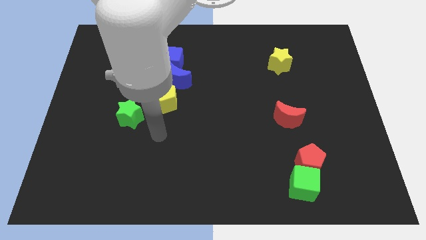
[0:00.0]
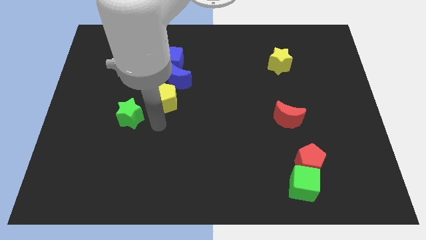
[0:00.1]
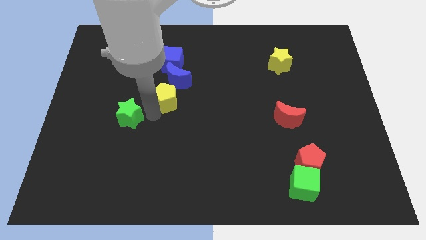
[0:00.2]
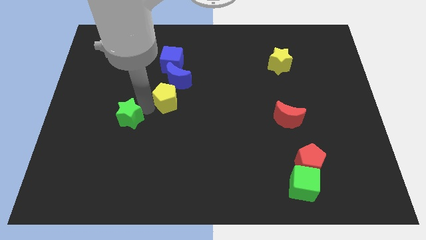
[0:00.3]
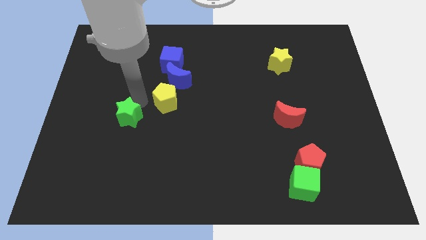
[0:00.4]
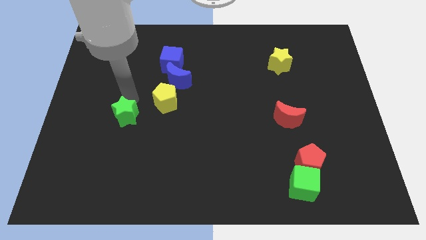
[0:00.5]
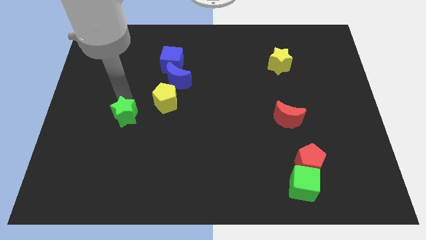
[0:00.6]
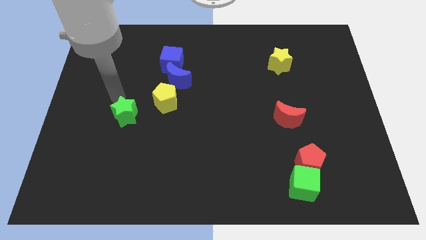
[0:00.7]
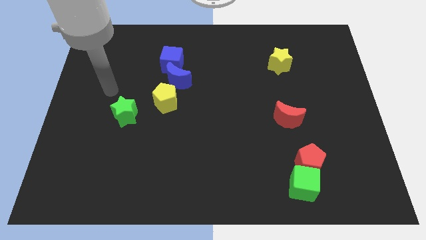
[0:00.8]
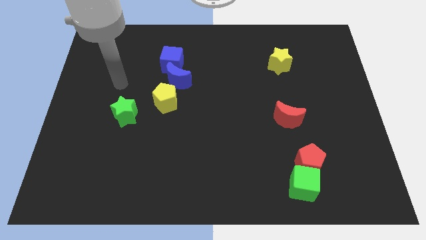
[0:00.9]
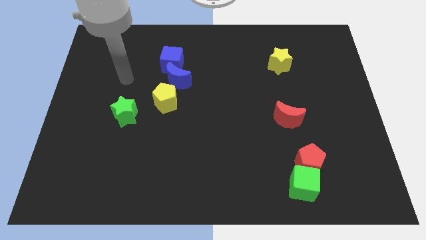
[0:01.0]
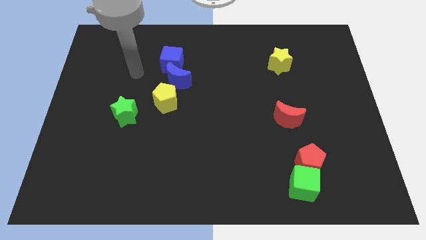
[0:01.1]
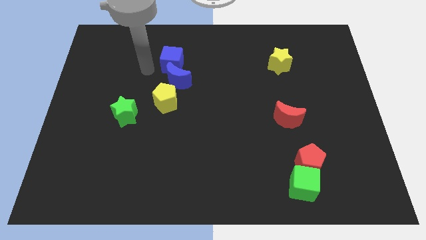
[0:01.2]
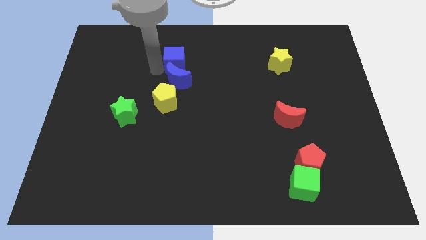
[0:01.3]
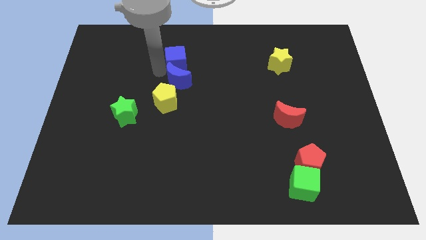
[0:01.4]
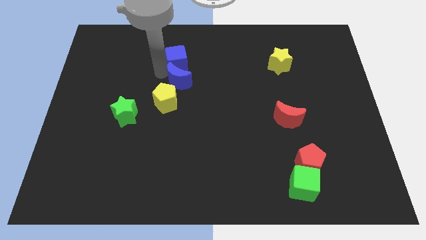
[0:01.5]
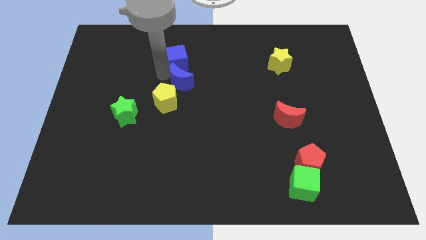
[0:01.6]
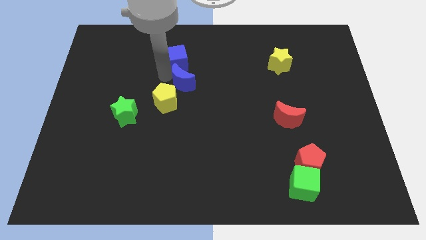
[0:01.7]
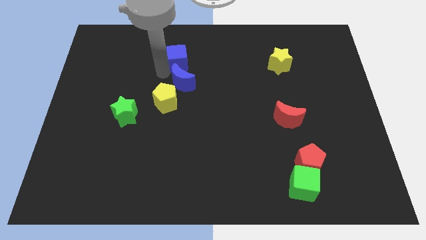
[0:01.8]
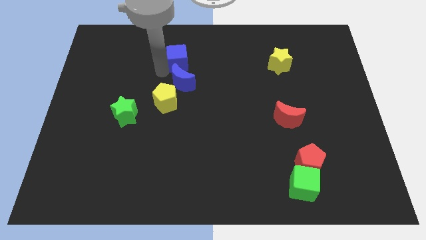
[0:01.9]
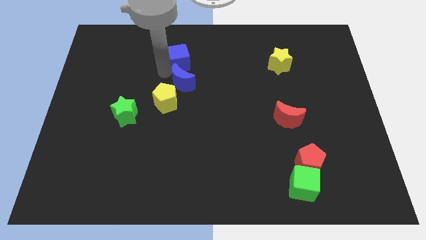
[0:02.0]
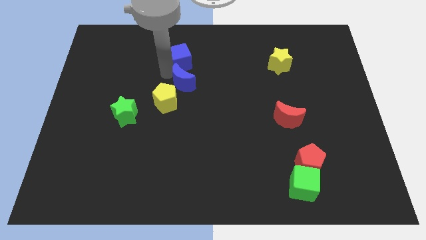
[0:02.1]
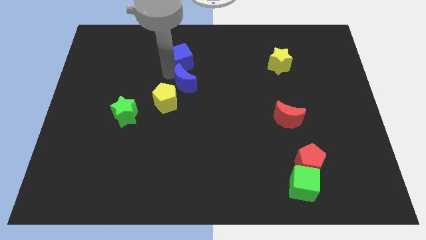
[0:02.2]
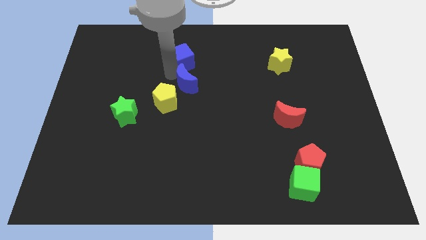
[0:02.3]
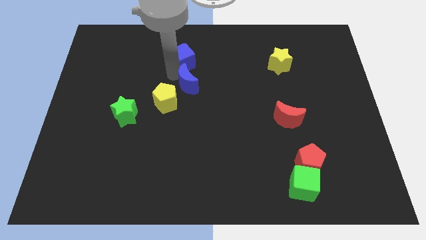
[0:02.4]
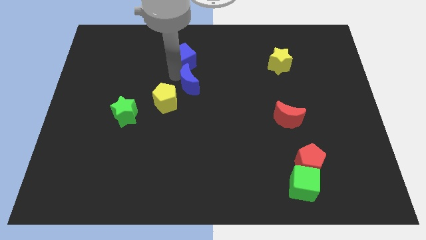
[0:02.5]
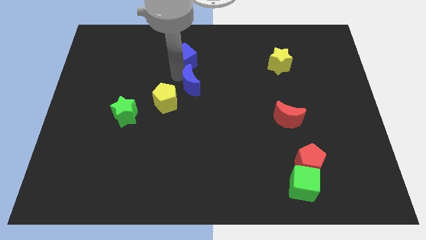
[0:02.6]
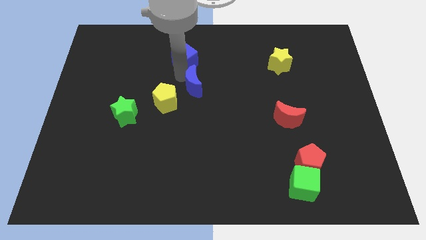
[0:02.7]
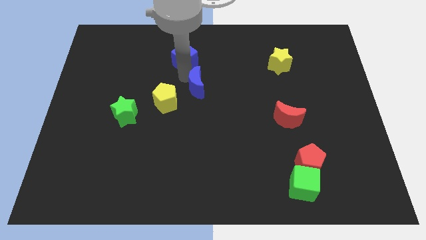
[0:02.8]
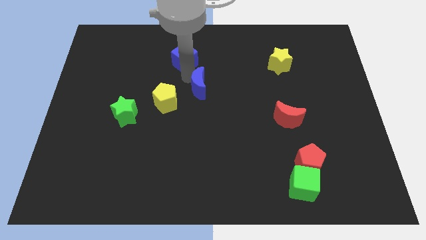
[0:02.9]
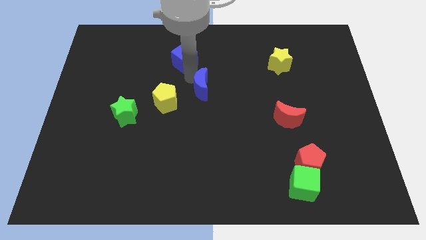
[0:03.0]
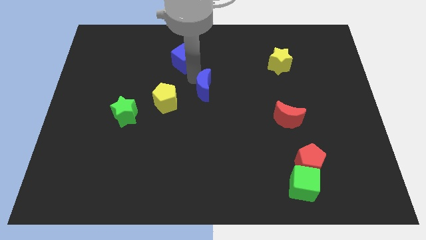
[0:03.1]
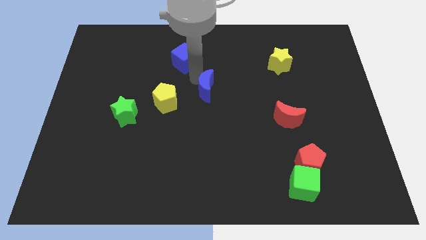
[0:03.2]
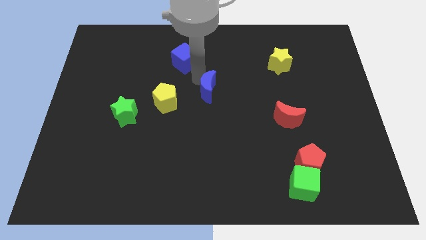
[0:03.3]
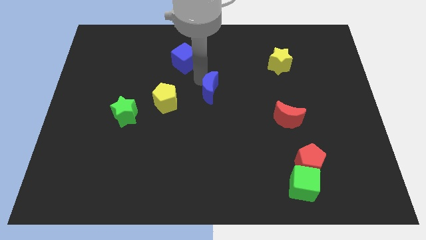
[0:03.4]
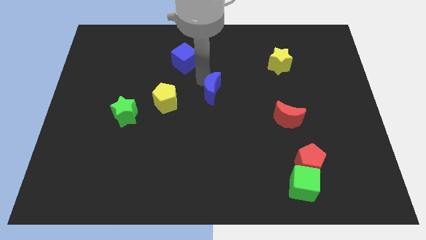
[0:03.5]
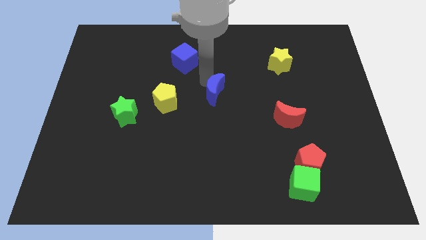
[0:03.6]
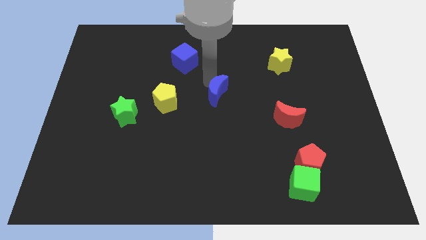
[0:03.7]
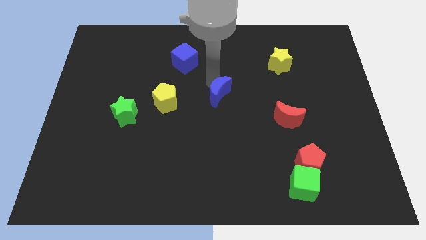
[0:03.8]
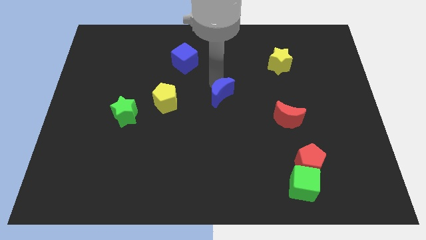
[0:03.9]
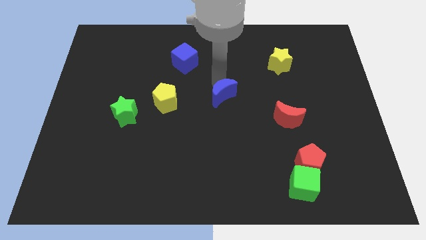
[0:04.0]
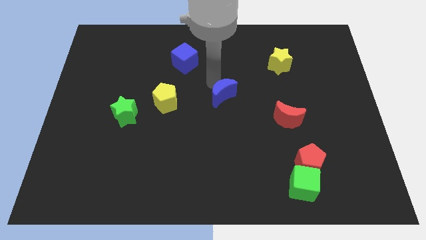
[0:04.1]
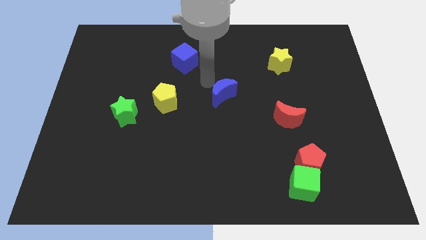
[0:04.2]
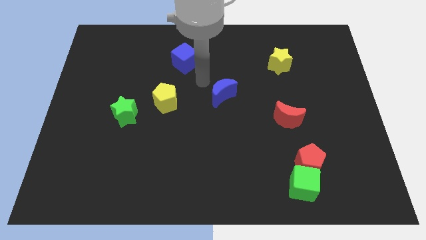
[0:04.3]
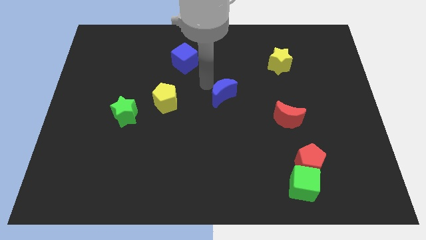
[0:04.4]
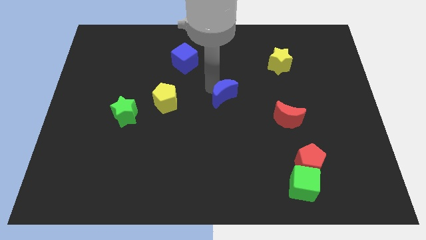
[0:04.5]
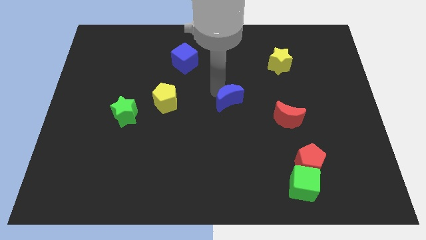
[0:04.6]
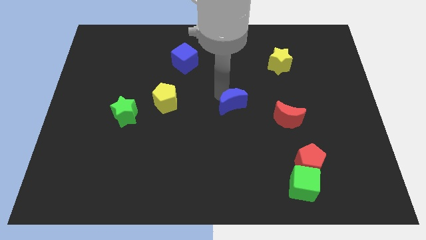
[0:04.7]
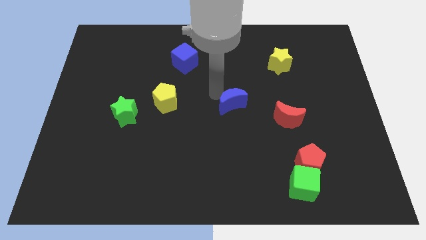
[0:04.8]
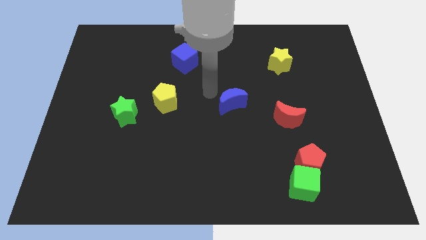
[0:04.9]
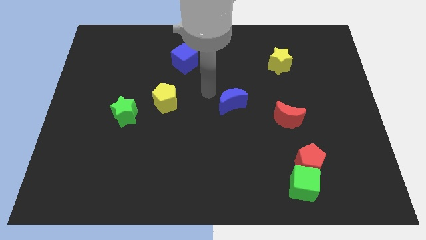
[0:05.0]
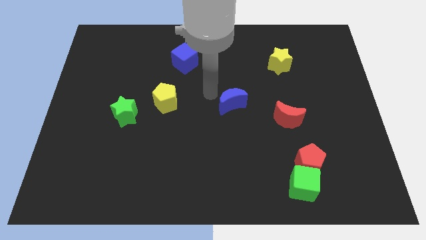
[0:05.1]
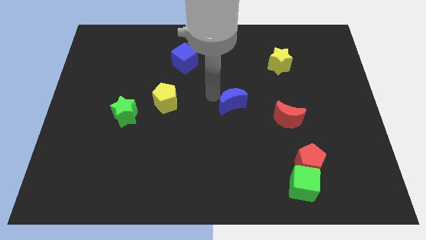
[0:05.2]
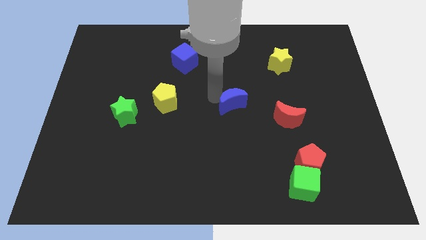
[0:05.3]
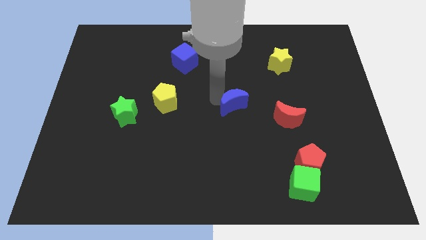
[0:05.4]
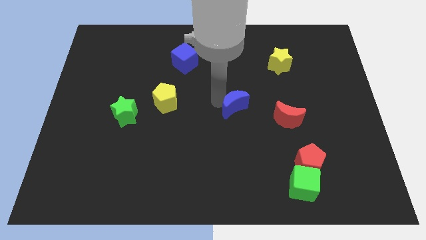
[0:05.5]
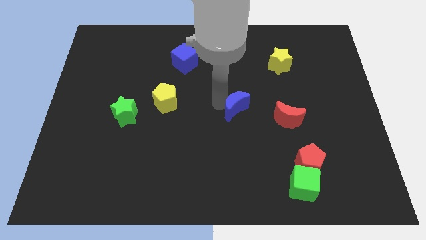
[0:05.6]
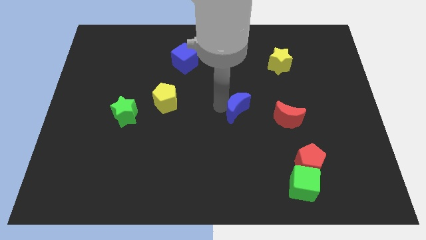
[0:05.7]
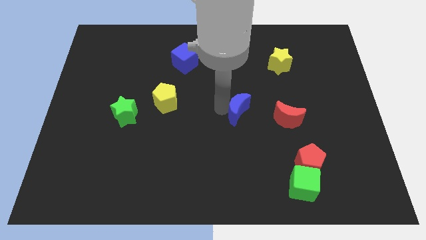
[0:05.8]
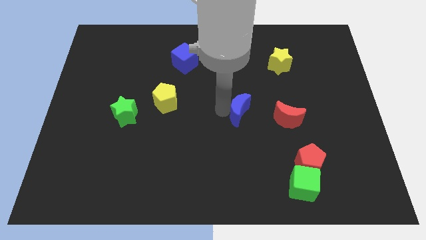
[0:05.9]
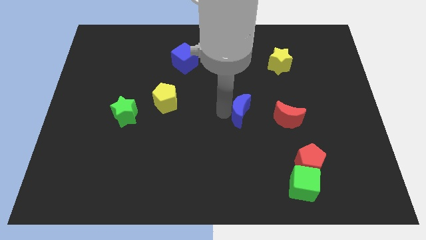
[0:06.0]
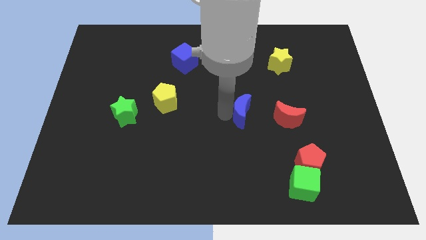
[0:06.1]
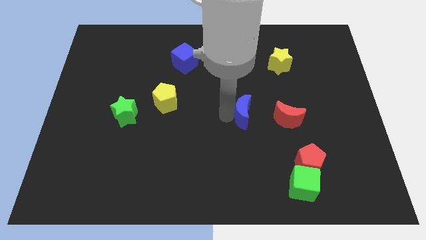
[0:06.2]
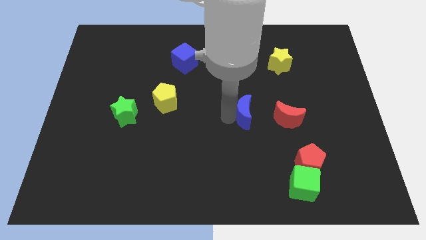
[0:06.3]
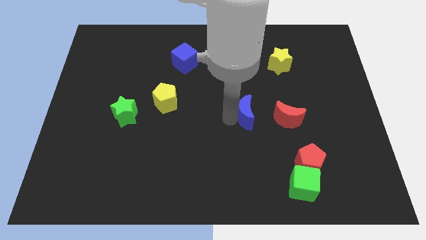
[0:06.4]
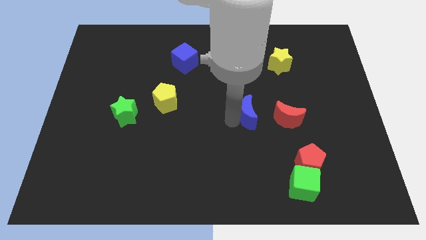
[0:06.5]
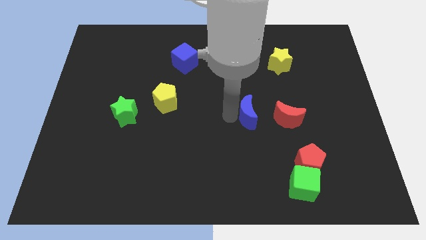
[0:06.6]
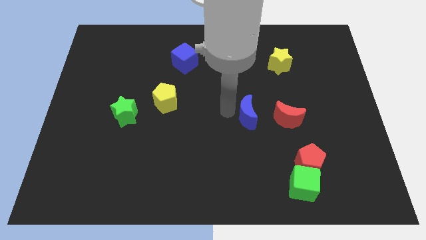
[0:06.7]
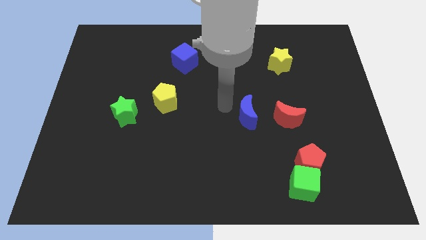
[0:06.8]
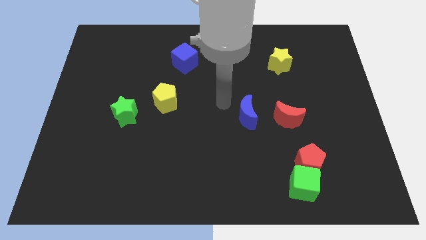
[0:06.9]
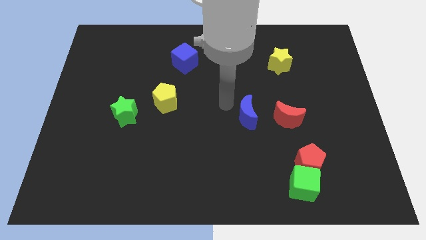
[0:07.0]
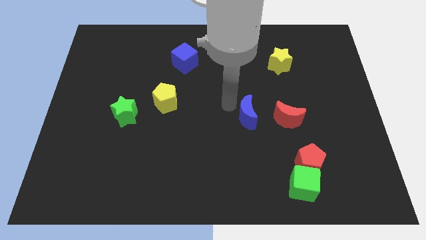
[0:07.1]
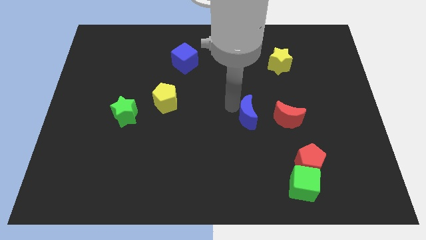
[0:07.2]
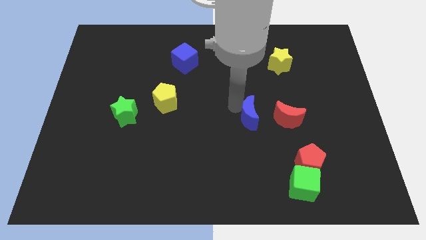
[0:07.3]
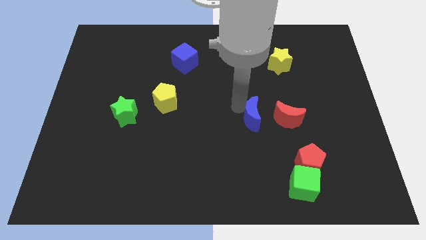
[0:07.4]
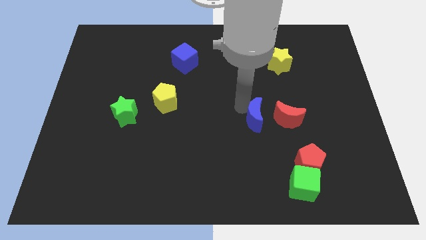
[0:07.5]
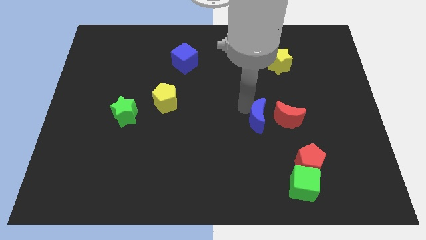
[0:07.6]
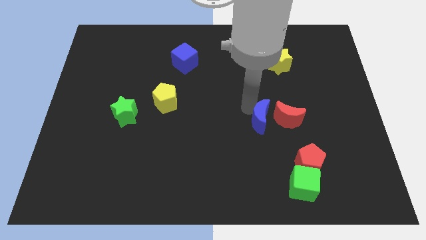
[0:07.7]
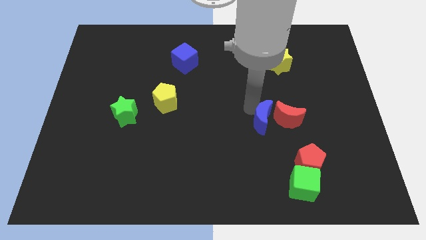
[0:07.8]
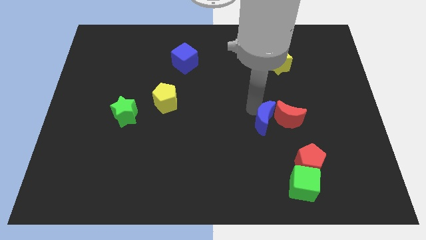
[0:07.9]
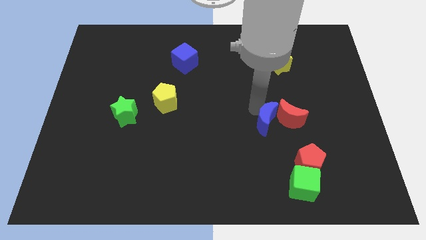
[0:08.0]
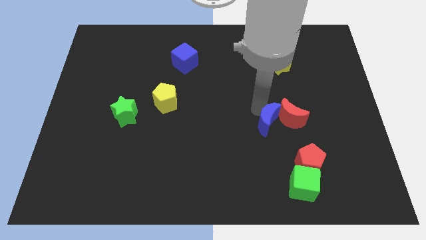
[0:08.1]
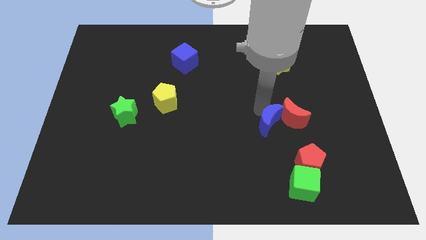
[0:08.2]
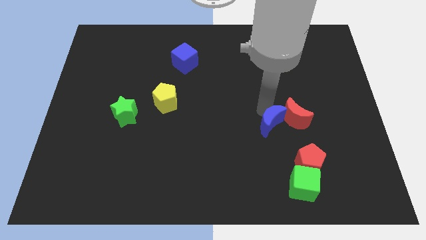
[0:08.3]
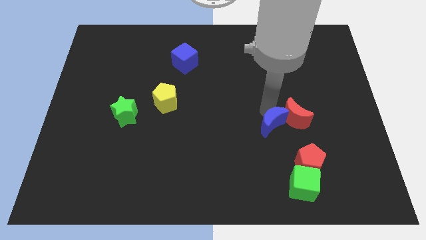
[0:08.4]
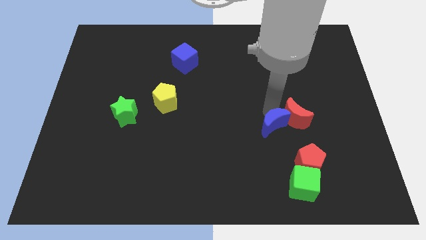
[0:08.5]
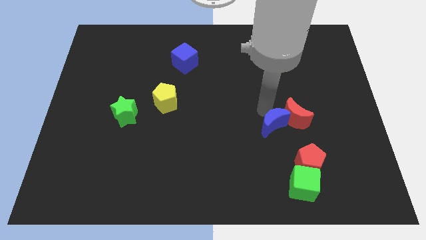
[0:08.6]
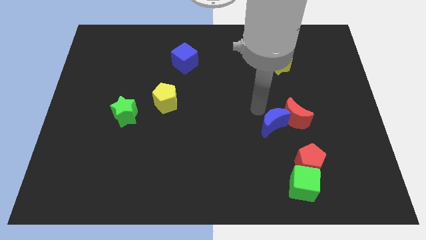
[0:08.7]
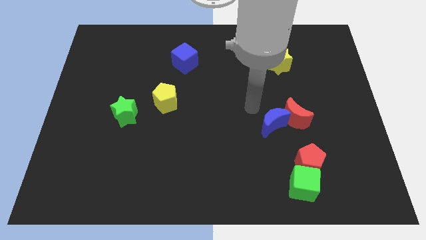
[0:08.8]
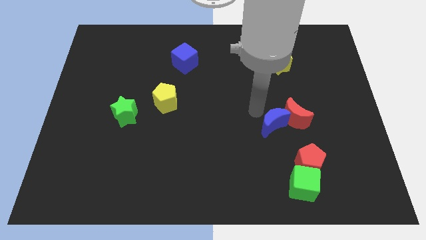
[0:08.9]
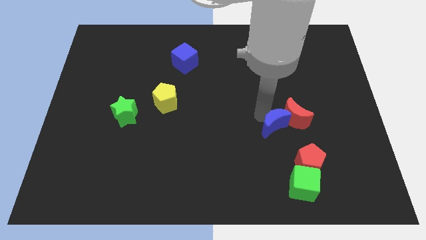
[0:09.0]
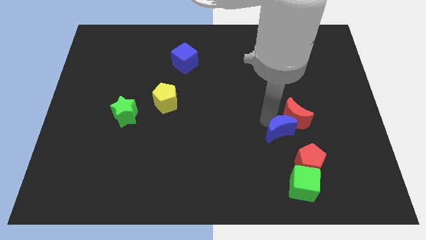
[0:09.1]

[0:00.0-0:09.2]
push the blue moon above the green cube
